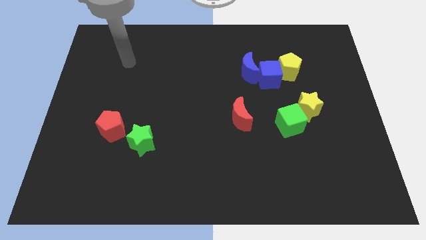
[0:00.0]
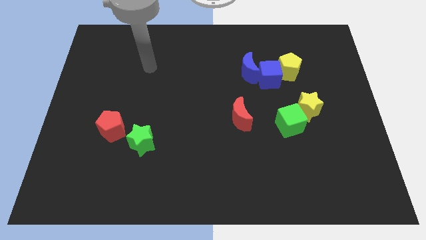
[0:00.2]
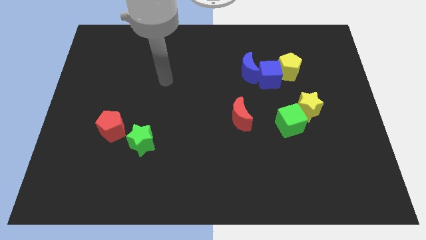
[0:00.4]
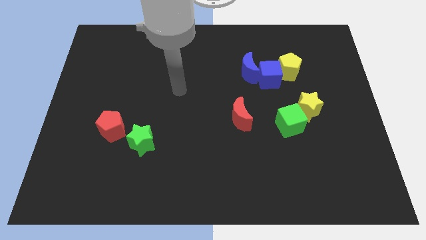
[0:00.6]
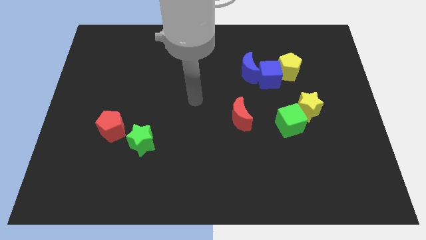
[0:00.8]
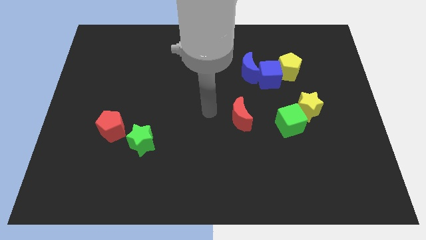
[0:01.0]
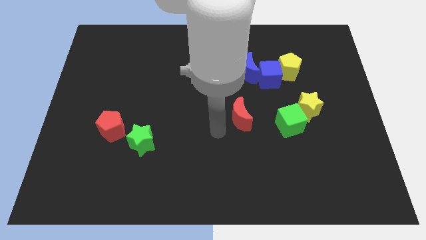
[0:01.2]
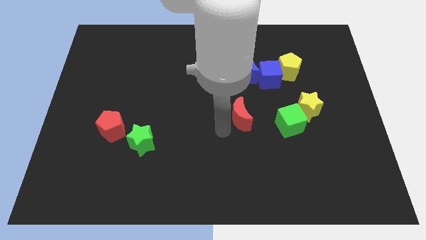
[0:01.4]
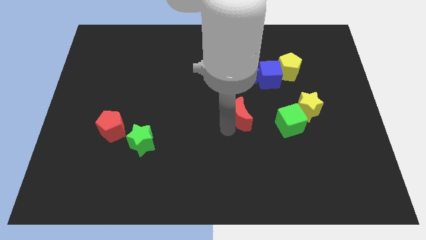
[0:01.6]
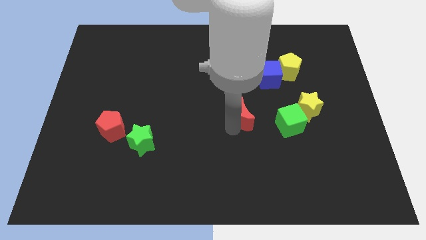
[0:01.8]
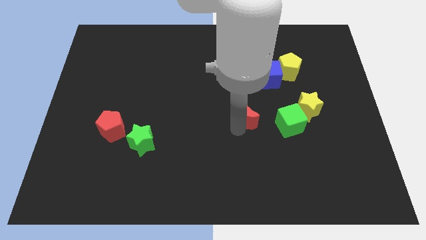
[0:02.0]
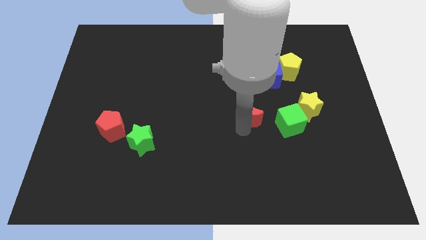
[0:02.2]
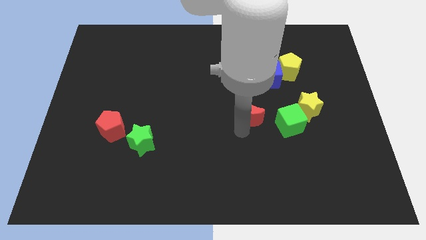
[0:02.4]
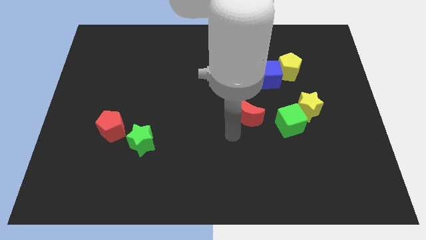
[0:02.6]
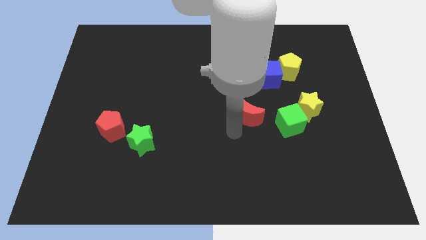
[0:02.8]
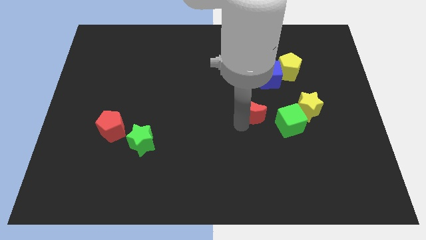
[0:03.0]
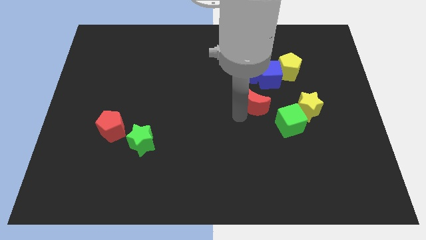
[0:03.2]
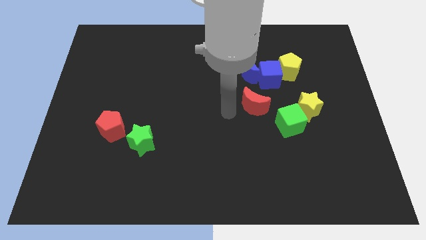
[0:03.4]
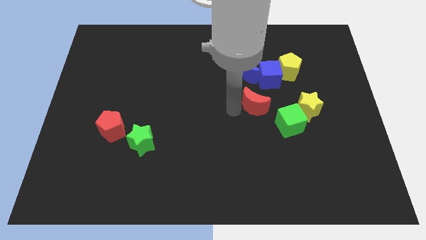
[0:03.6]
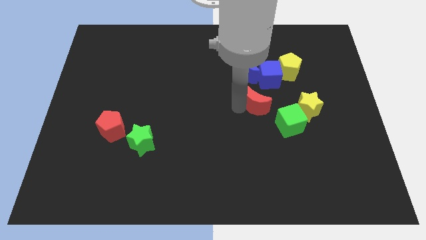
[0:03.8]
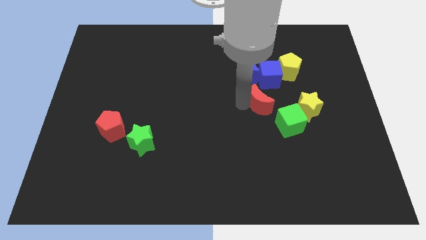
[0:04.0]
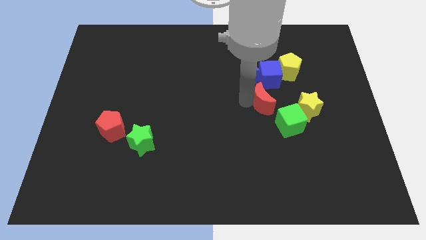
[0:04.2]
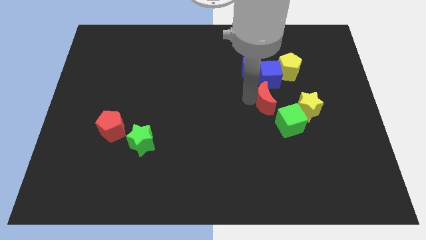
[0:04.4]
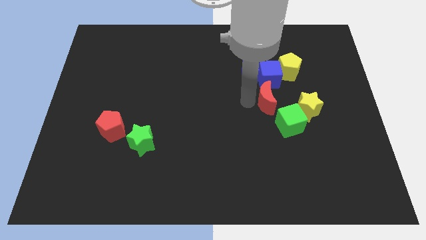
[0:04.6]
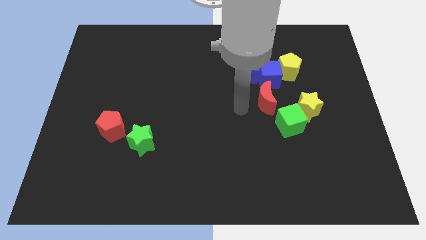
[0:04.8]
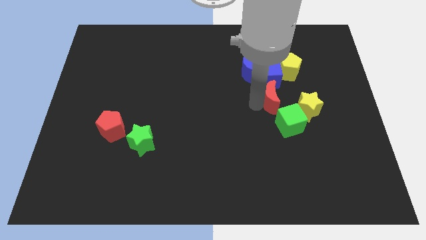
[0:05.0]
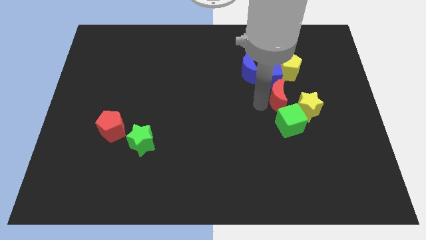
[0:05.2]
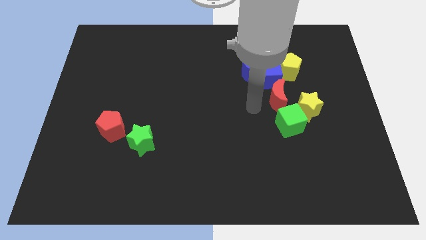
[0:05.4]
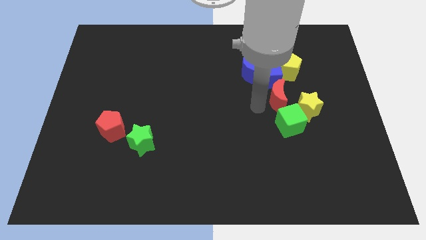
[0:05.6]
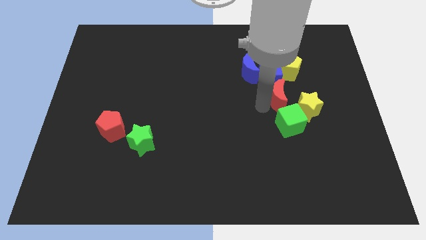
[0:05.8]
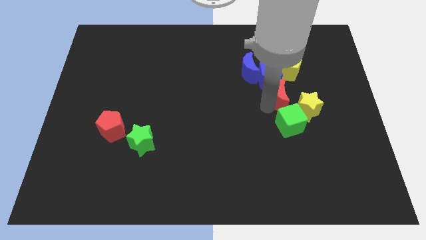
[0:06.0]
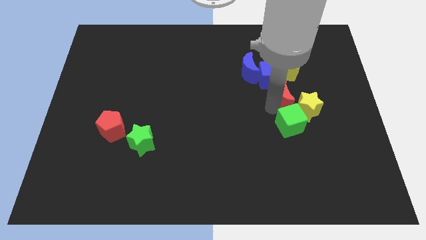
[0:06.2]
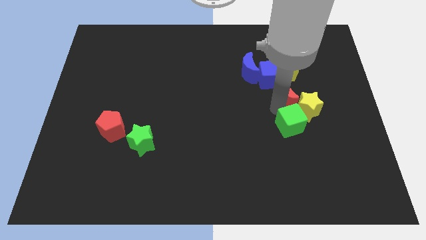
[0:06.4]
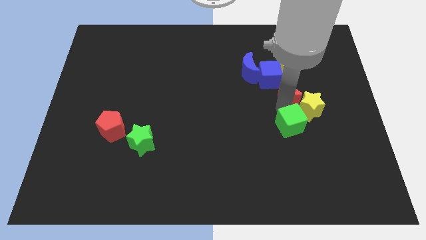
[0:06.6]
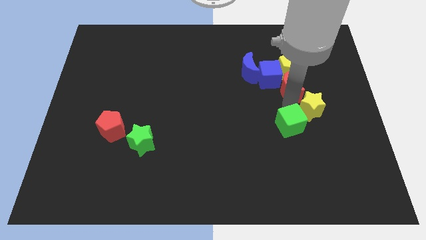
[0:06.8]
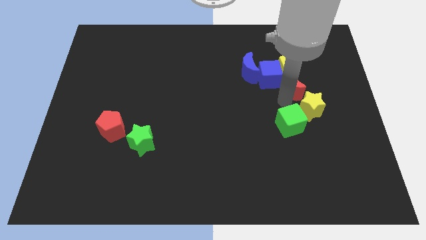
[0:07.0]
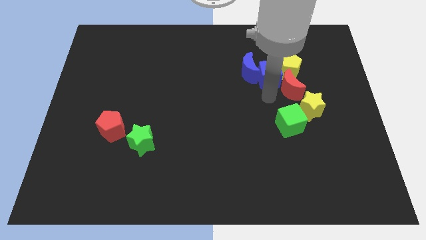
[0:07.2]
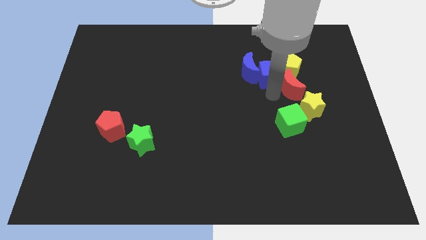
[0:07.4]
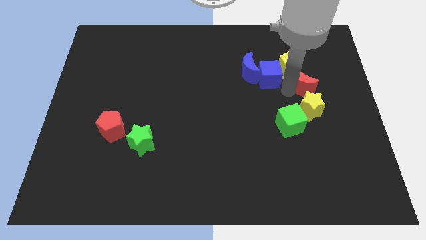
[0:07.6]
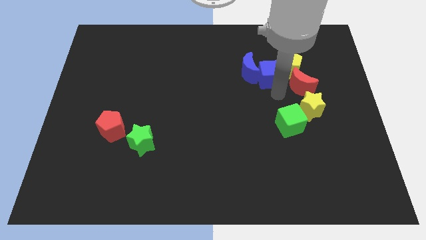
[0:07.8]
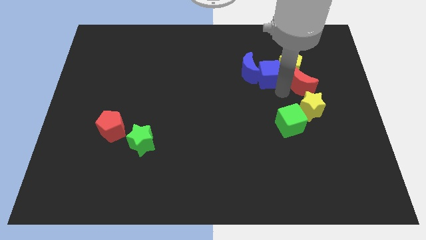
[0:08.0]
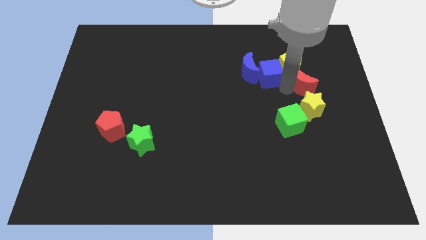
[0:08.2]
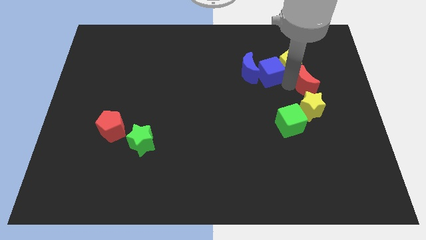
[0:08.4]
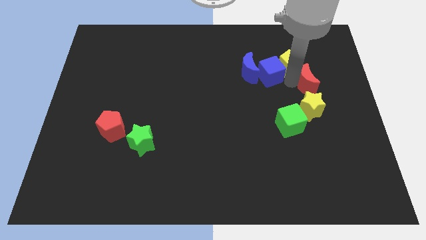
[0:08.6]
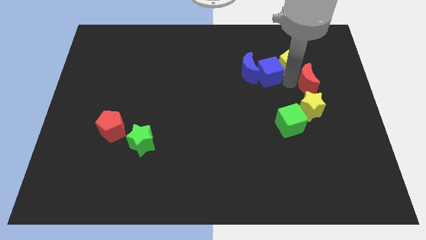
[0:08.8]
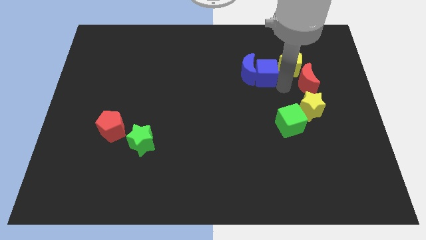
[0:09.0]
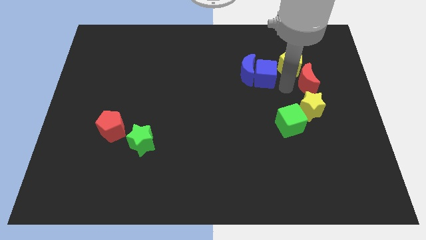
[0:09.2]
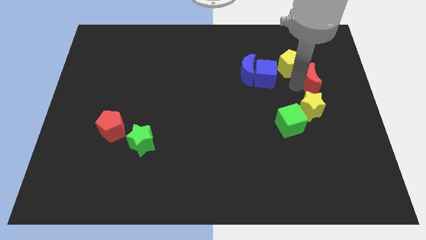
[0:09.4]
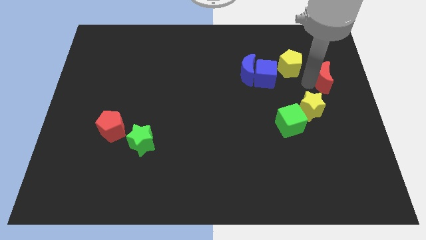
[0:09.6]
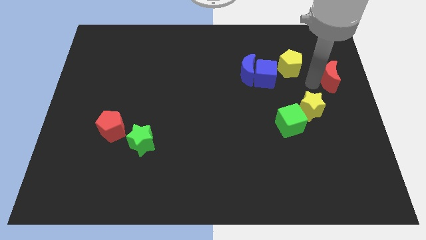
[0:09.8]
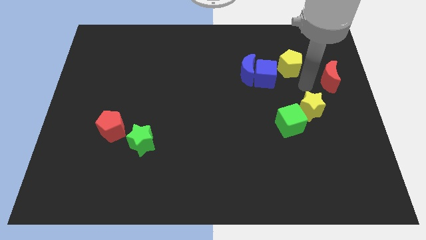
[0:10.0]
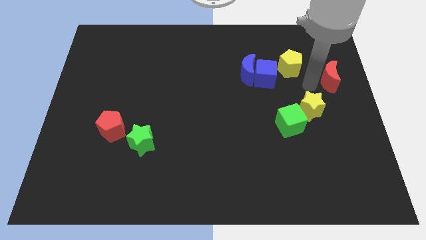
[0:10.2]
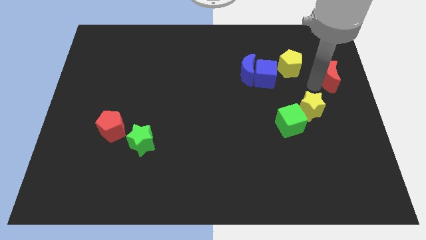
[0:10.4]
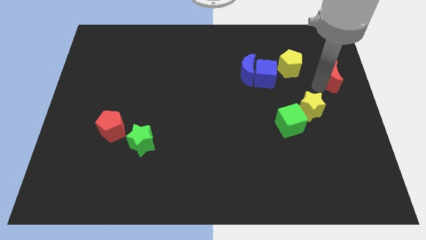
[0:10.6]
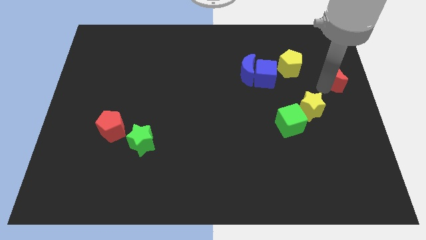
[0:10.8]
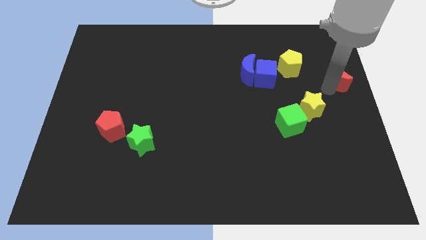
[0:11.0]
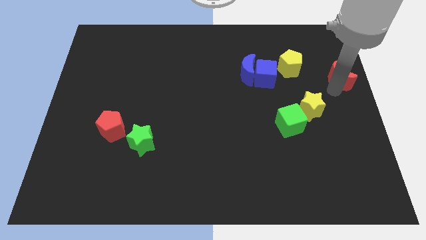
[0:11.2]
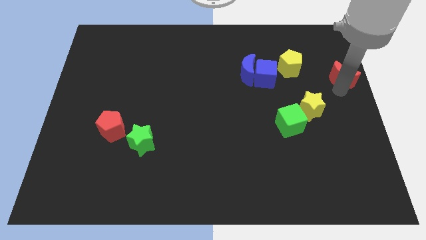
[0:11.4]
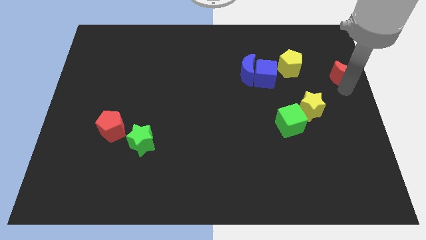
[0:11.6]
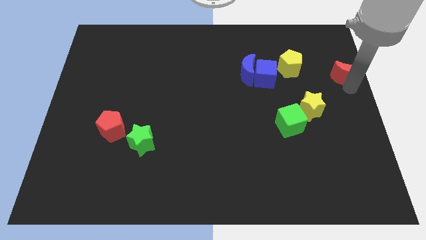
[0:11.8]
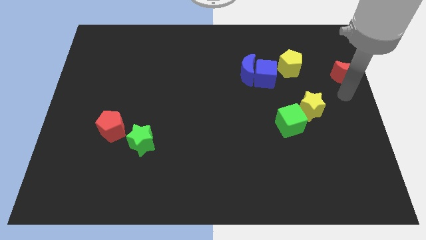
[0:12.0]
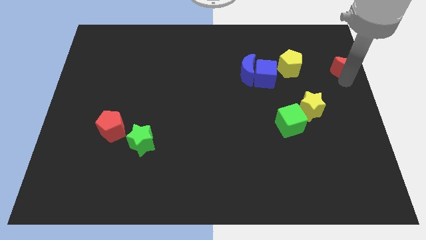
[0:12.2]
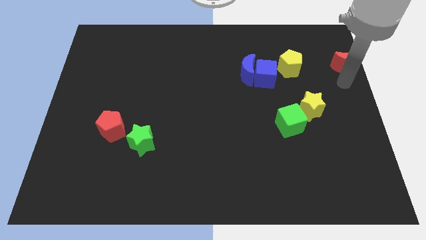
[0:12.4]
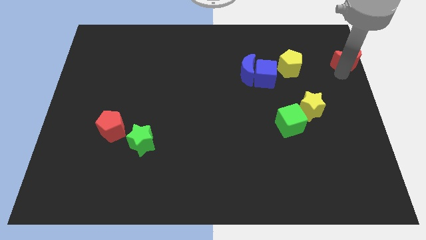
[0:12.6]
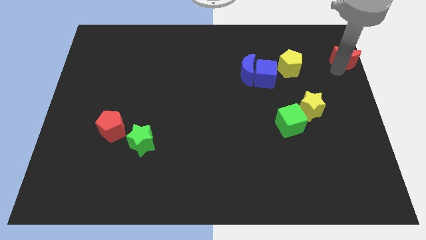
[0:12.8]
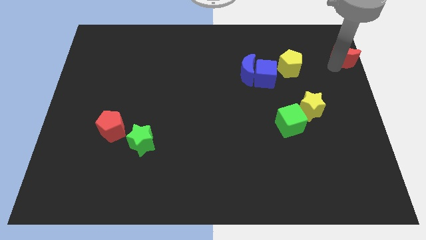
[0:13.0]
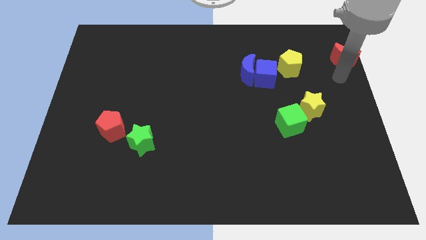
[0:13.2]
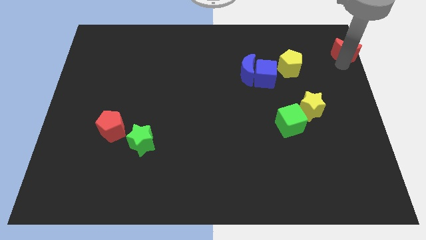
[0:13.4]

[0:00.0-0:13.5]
push the red moon to the top right corner
